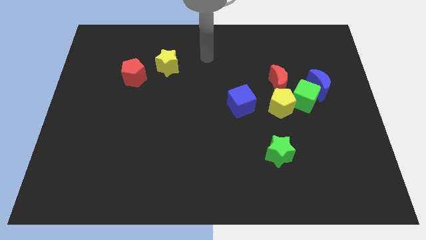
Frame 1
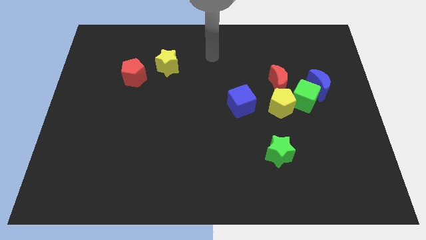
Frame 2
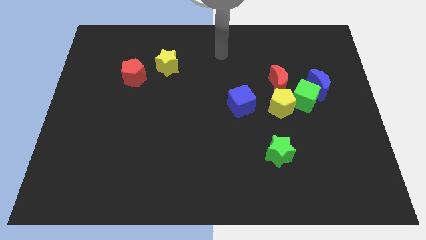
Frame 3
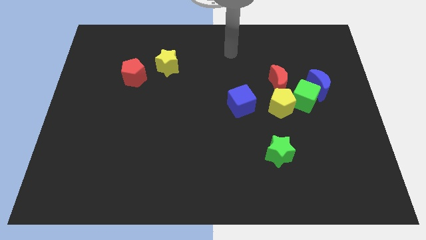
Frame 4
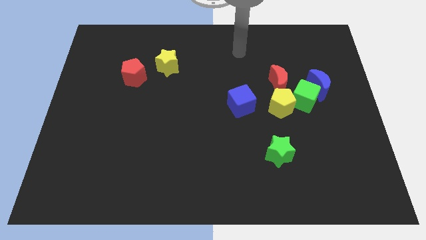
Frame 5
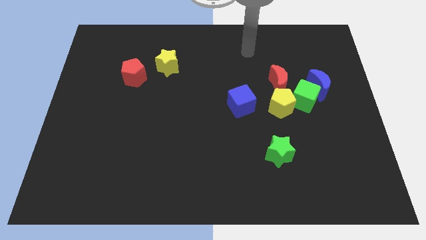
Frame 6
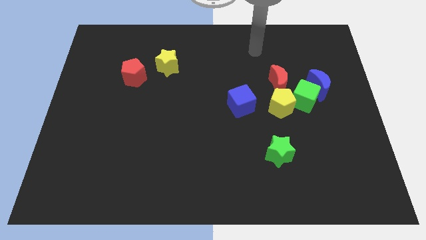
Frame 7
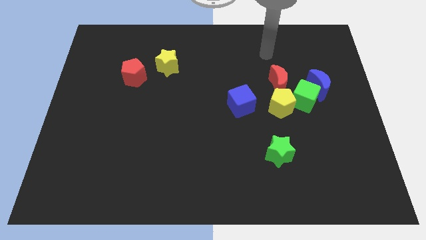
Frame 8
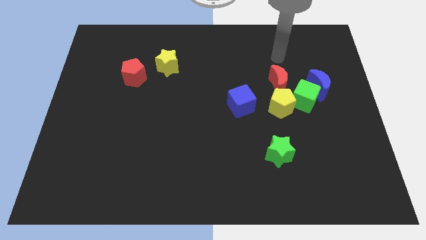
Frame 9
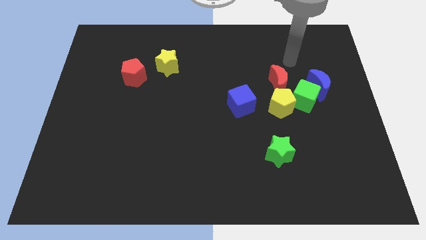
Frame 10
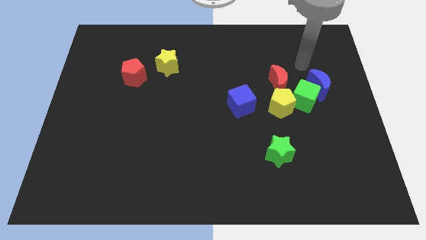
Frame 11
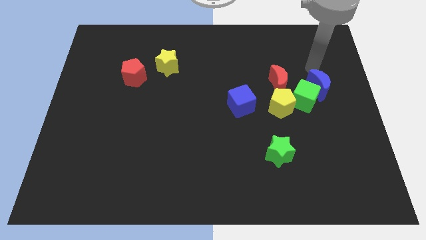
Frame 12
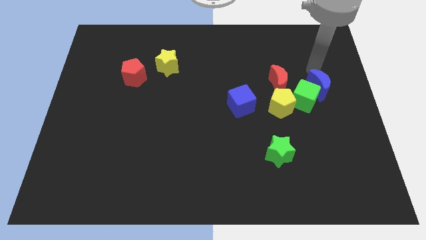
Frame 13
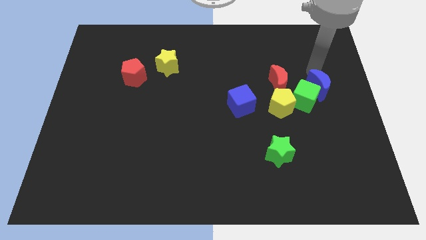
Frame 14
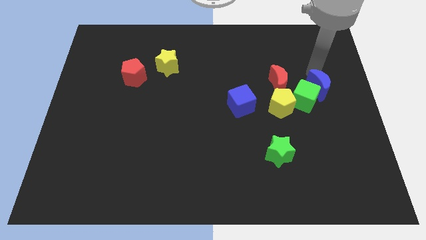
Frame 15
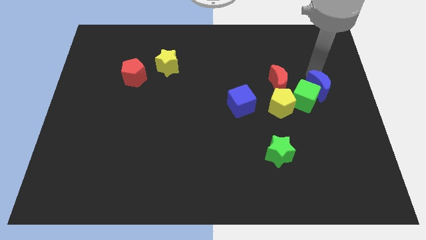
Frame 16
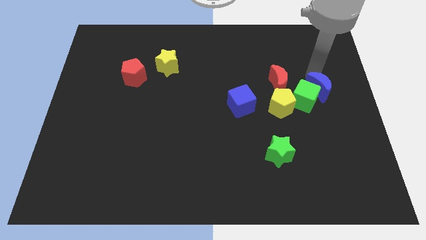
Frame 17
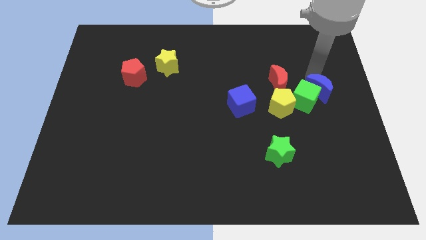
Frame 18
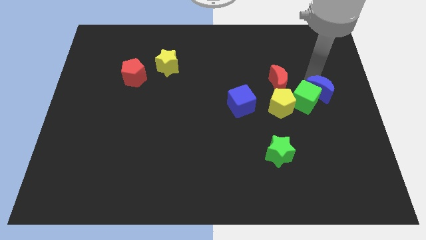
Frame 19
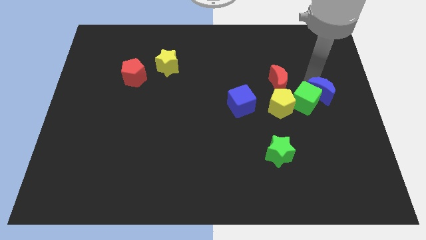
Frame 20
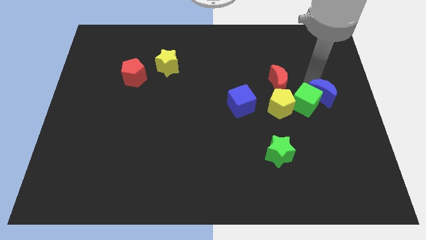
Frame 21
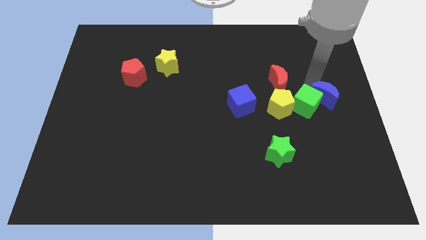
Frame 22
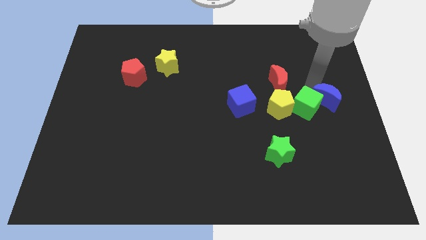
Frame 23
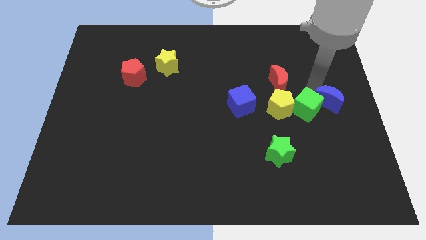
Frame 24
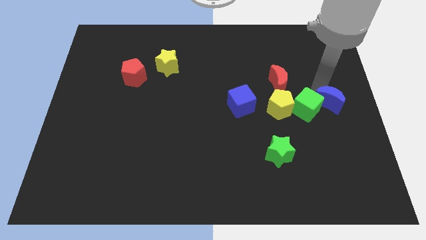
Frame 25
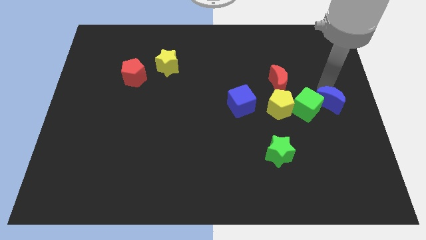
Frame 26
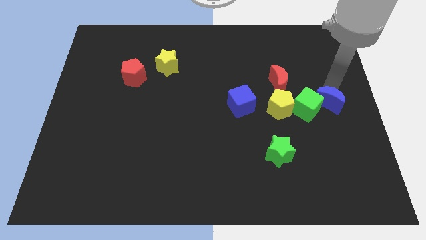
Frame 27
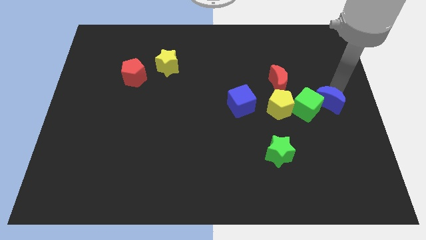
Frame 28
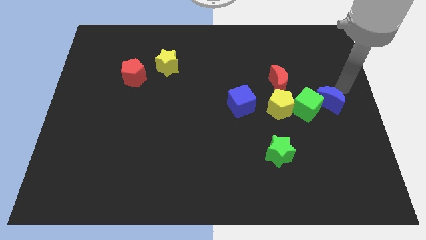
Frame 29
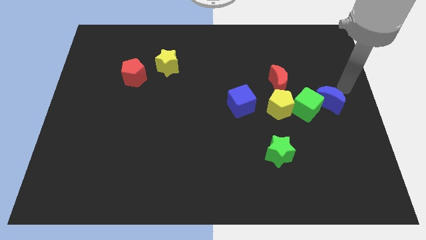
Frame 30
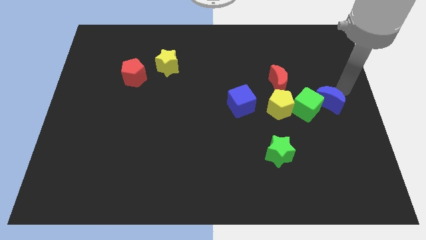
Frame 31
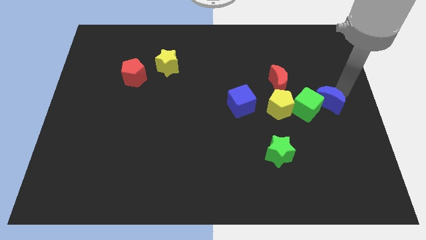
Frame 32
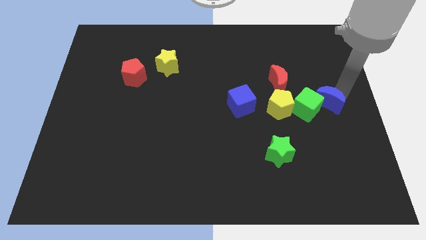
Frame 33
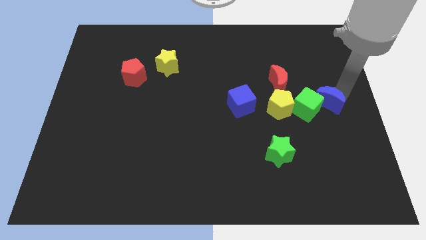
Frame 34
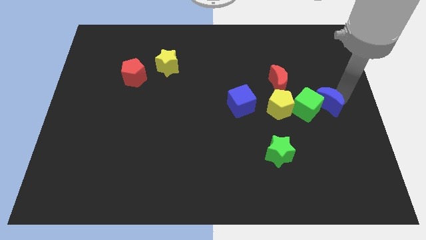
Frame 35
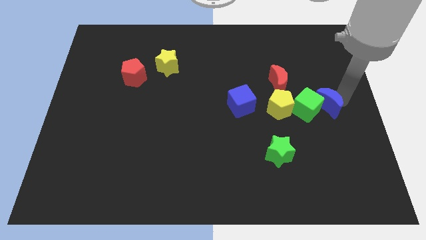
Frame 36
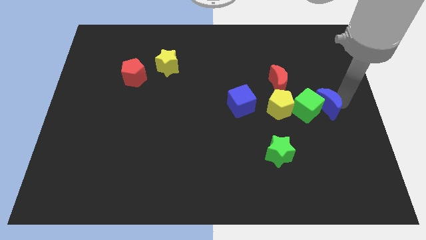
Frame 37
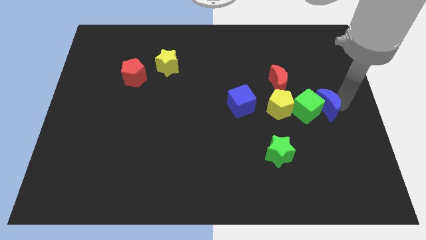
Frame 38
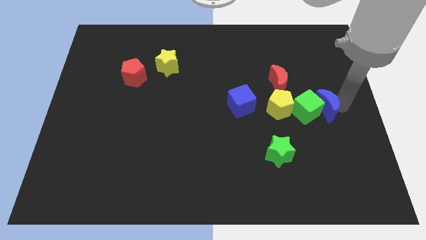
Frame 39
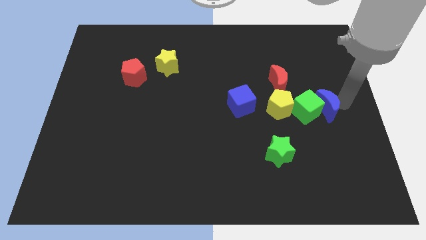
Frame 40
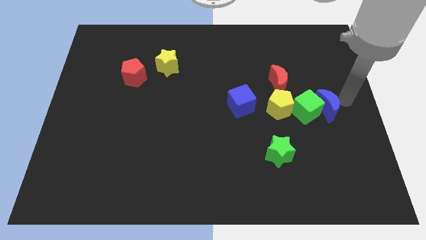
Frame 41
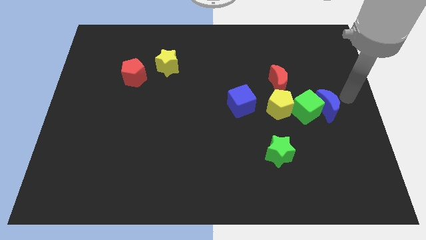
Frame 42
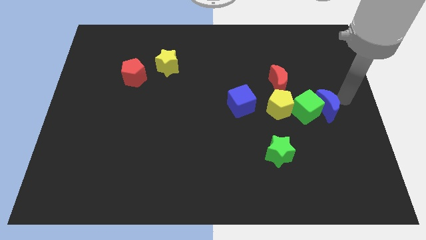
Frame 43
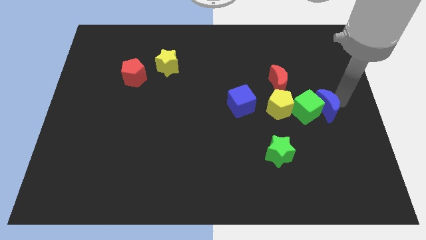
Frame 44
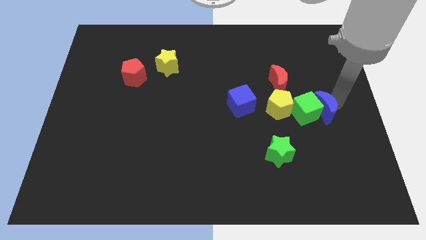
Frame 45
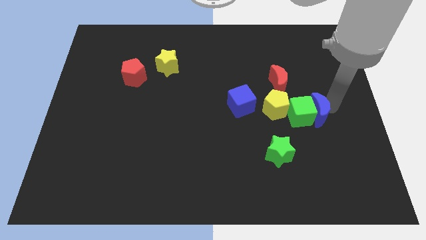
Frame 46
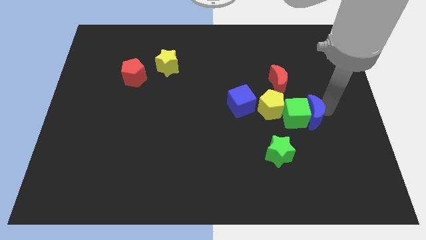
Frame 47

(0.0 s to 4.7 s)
slide the blue moon diagonally downwards and to the left a little

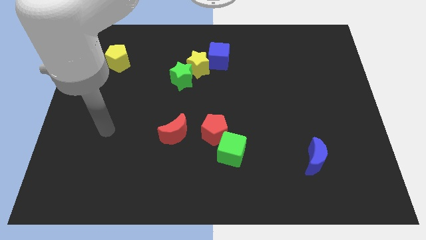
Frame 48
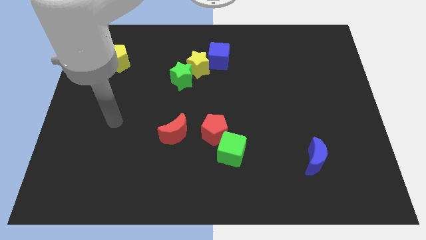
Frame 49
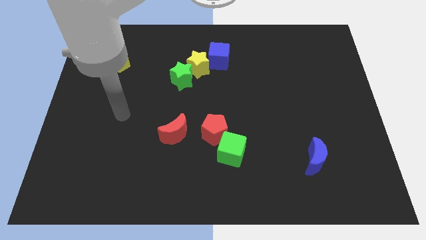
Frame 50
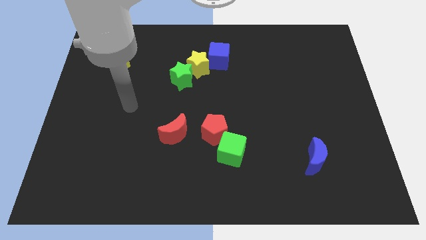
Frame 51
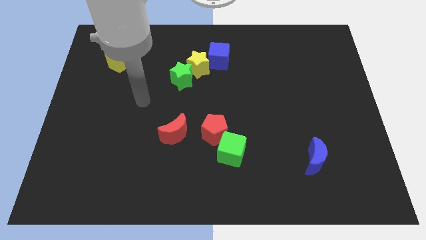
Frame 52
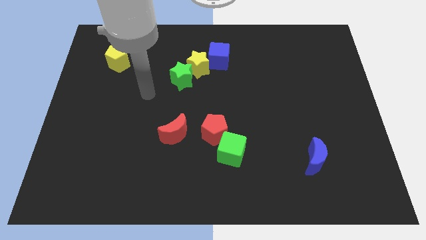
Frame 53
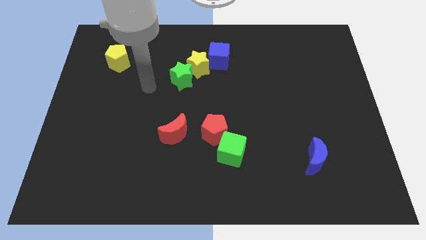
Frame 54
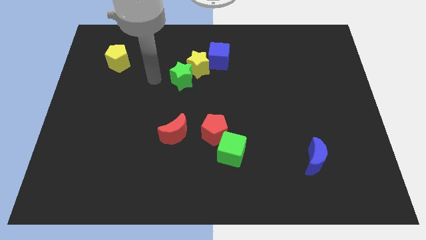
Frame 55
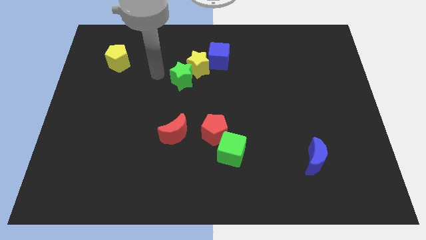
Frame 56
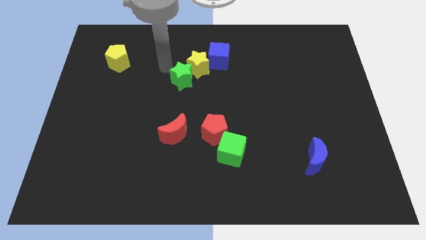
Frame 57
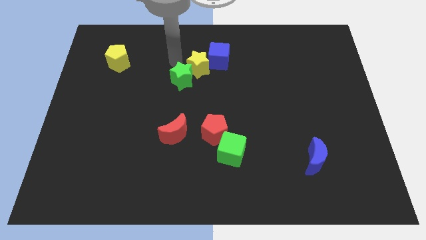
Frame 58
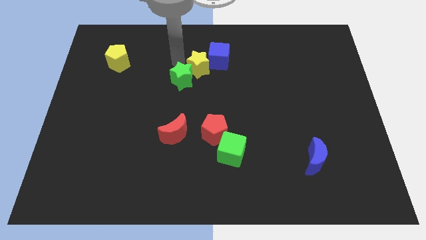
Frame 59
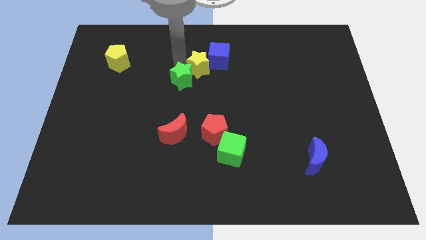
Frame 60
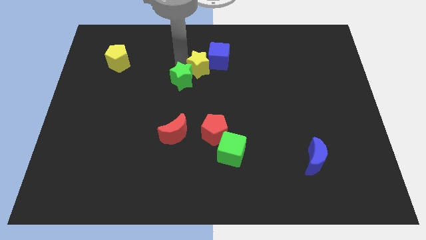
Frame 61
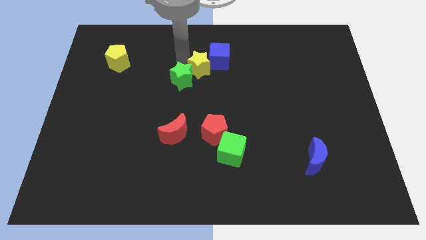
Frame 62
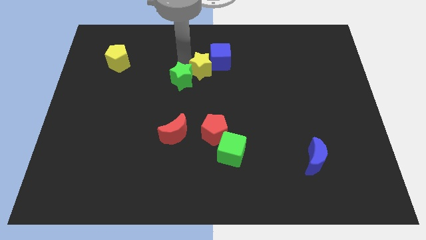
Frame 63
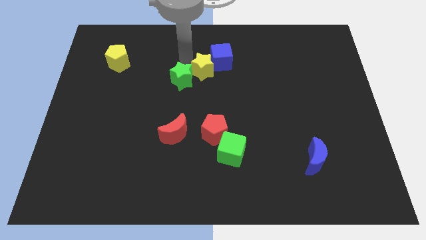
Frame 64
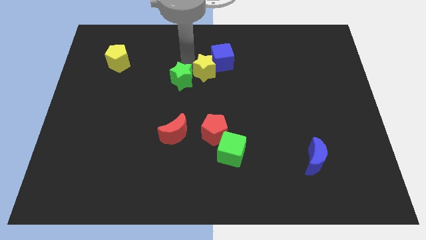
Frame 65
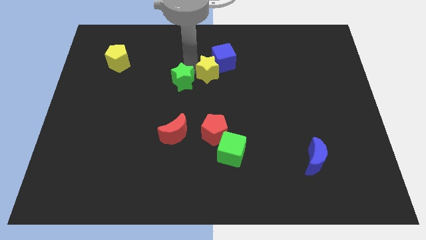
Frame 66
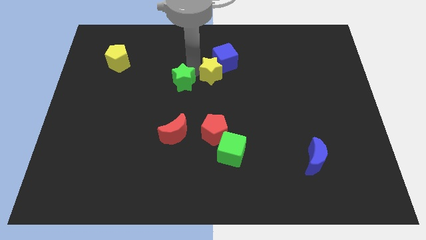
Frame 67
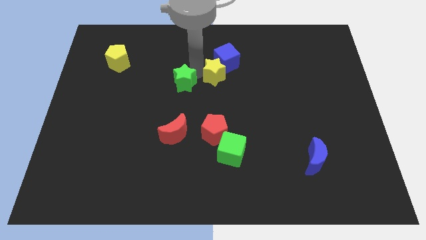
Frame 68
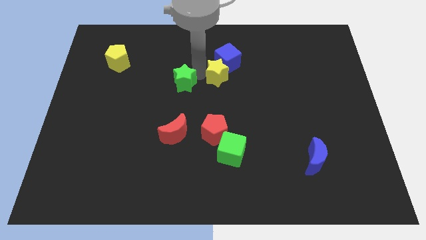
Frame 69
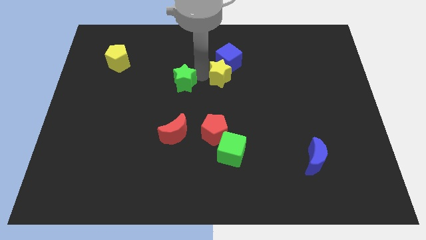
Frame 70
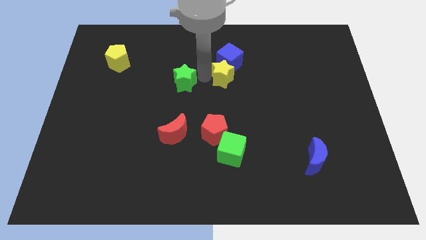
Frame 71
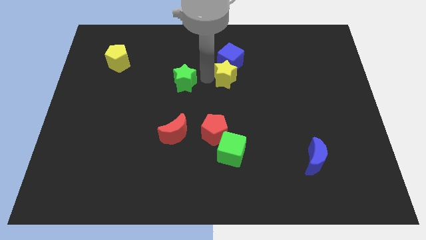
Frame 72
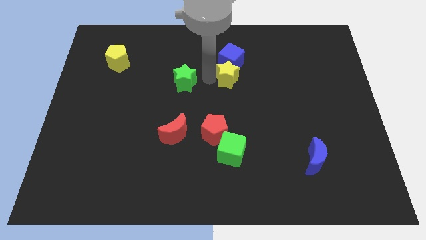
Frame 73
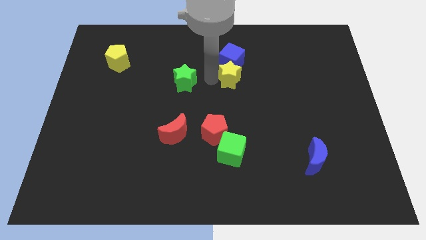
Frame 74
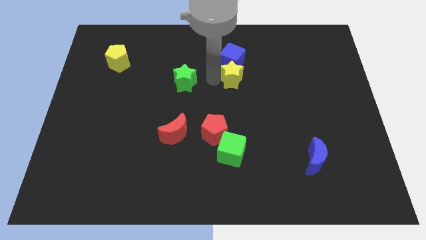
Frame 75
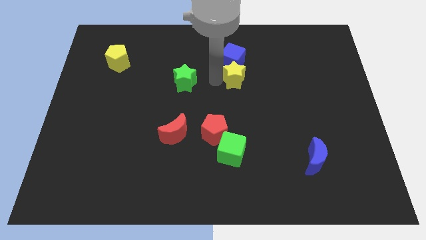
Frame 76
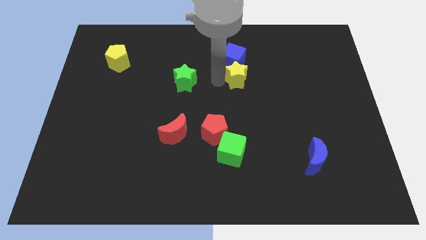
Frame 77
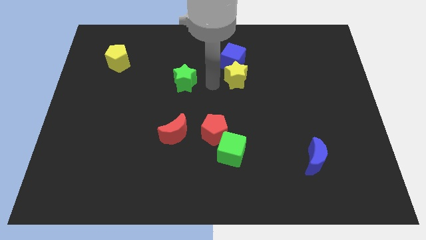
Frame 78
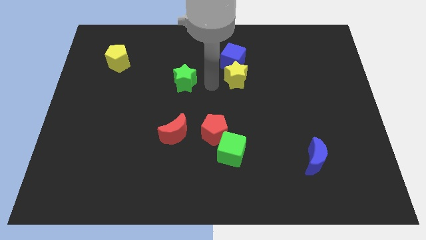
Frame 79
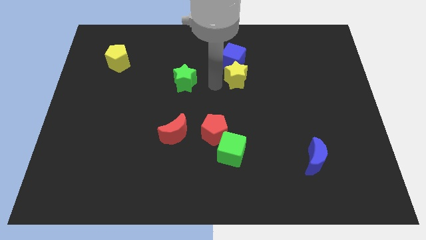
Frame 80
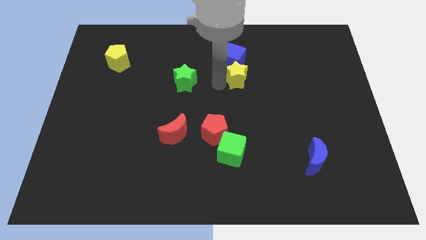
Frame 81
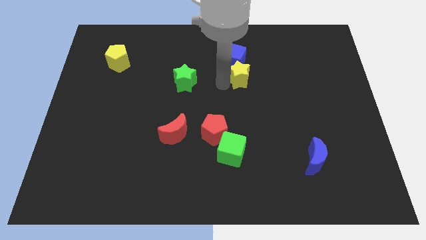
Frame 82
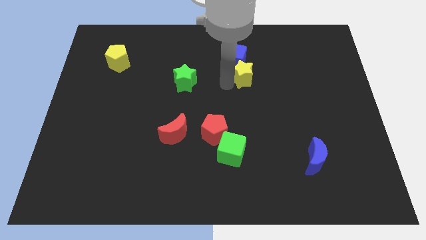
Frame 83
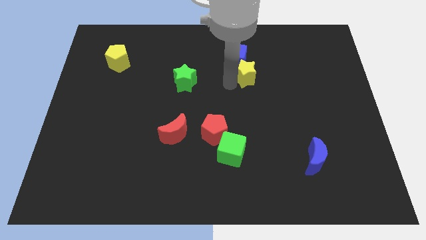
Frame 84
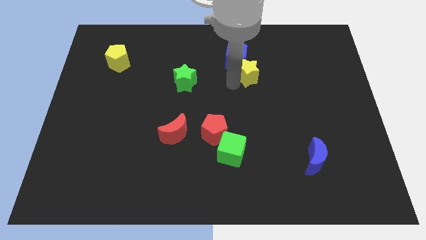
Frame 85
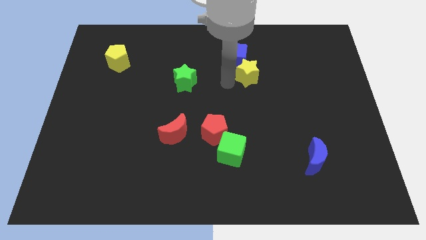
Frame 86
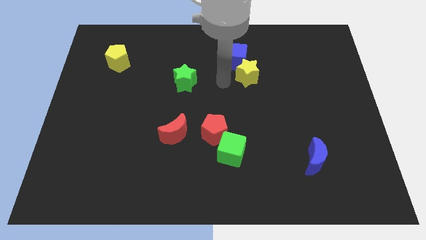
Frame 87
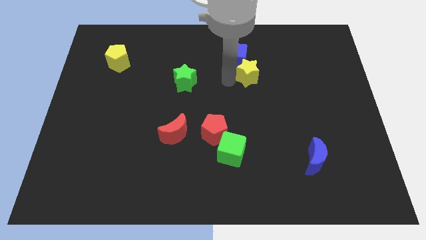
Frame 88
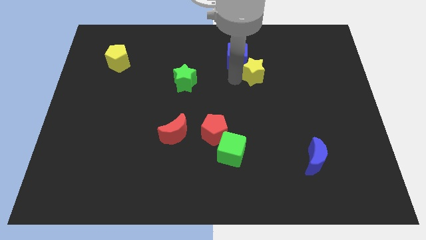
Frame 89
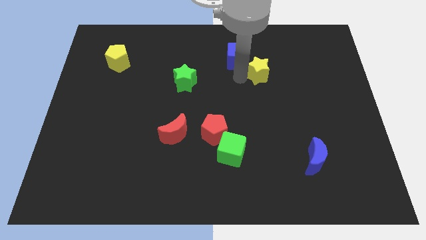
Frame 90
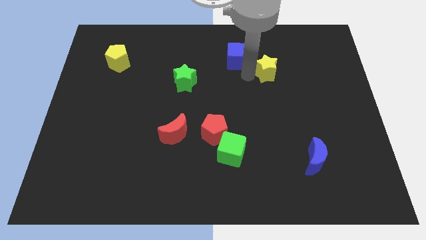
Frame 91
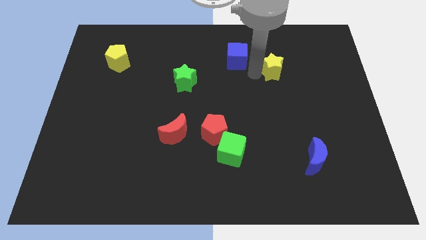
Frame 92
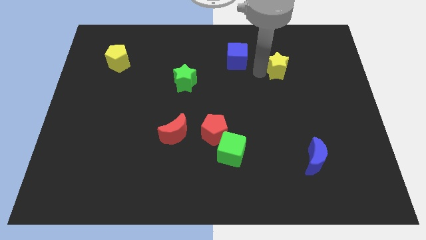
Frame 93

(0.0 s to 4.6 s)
slide the yellow star to the right
